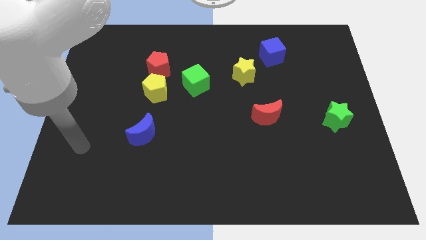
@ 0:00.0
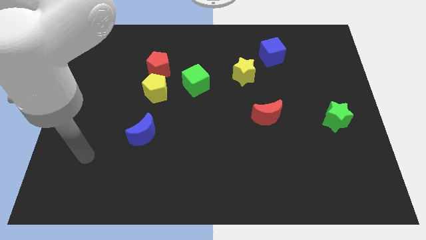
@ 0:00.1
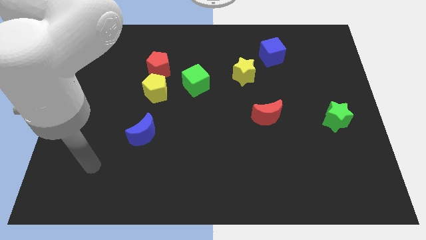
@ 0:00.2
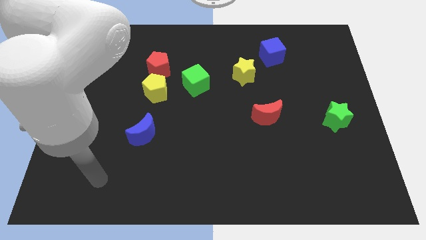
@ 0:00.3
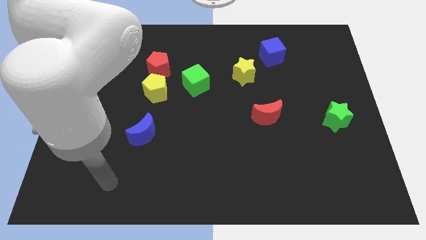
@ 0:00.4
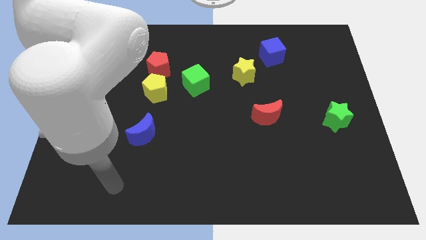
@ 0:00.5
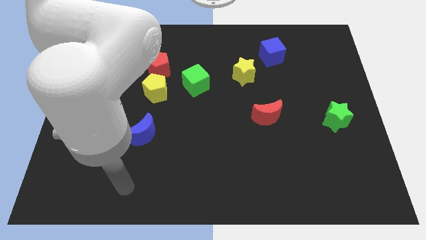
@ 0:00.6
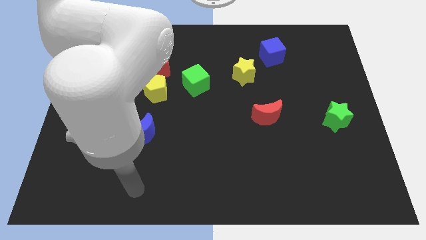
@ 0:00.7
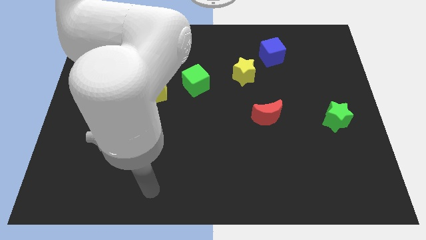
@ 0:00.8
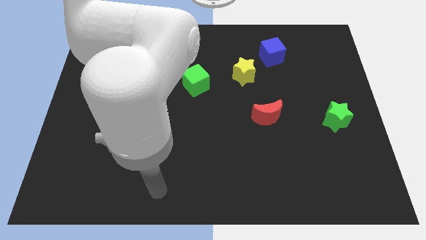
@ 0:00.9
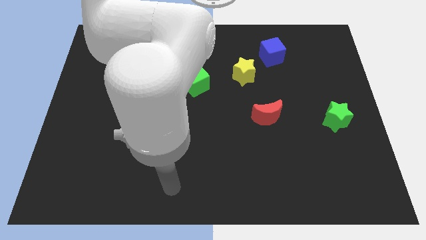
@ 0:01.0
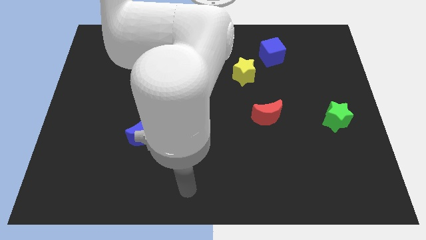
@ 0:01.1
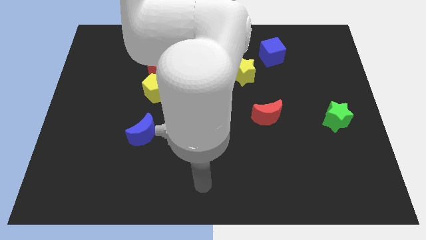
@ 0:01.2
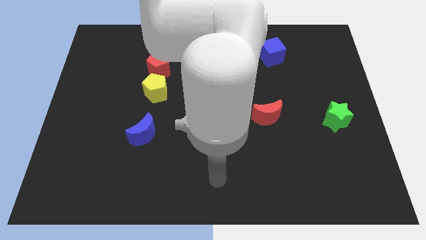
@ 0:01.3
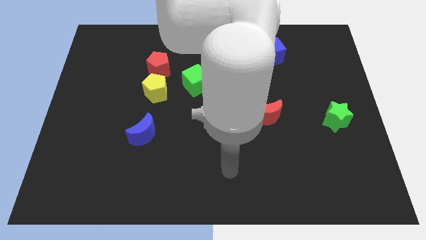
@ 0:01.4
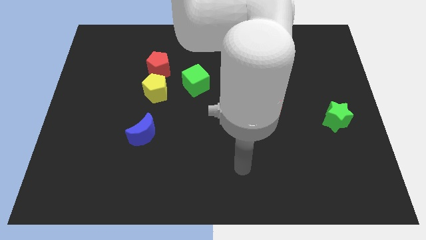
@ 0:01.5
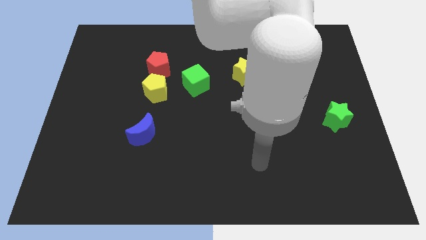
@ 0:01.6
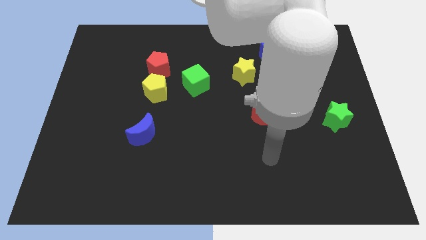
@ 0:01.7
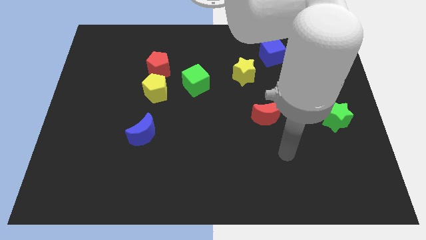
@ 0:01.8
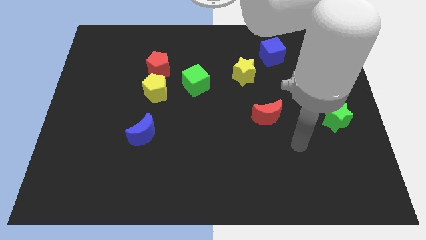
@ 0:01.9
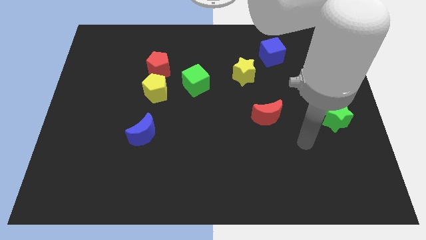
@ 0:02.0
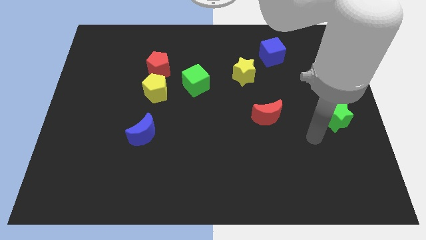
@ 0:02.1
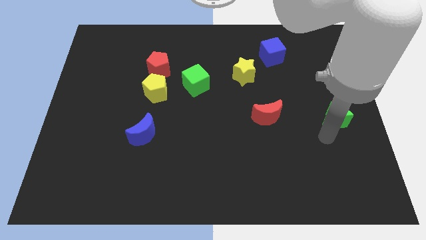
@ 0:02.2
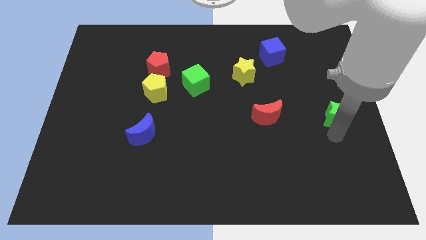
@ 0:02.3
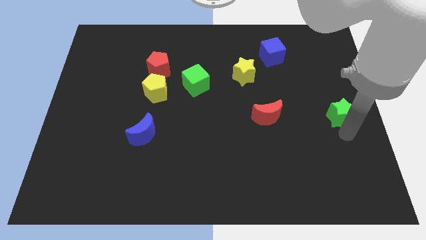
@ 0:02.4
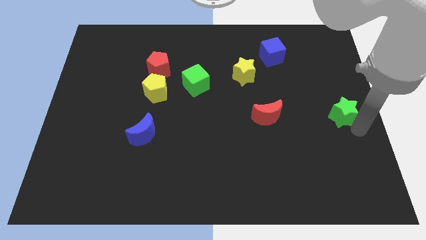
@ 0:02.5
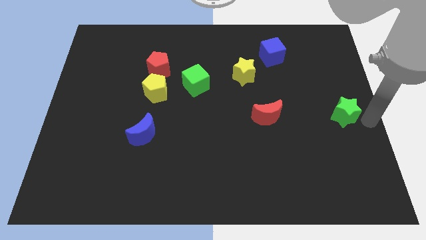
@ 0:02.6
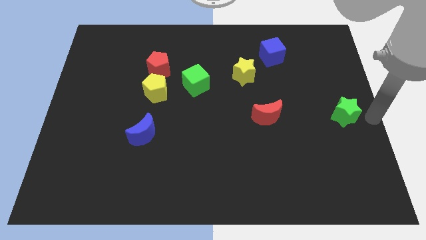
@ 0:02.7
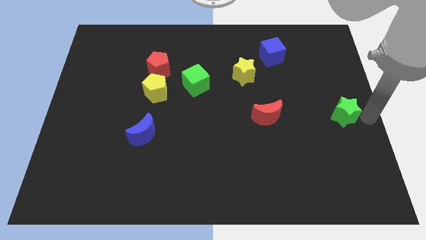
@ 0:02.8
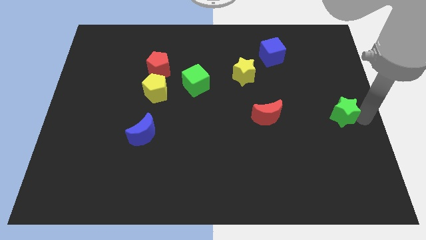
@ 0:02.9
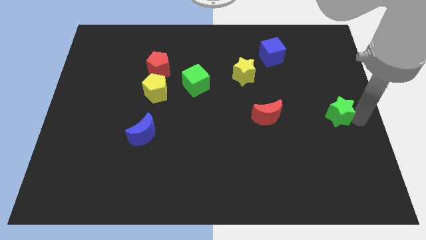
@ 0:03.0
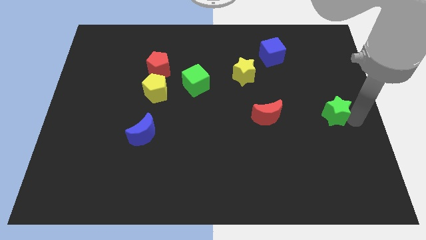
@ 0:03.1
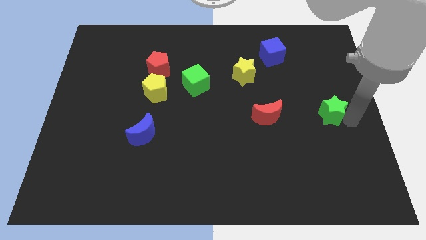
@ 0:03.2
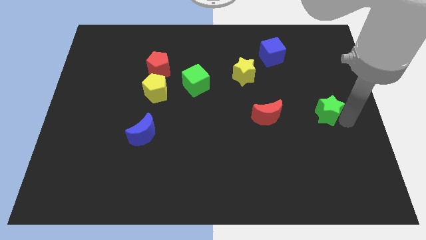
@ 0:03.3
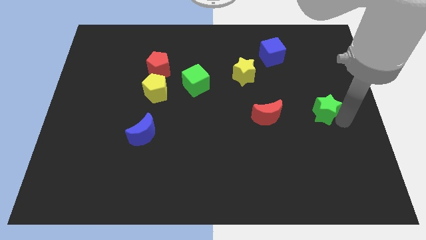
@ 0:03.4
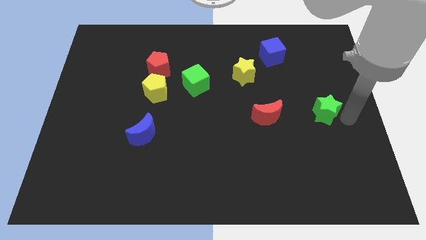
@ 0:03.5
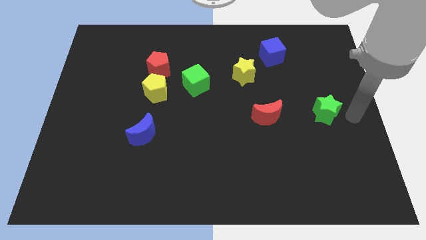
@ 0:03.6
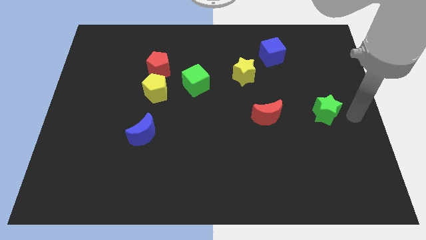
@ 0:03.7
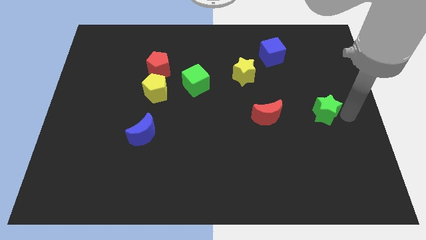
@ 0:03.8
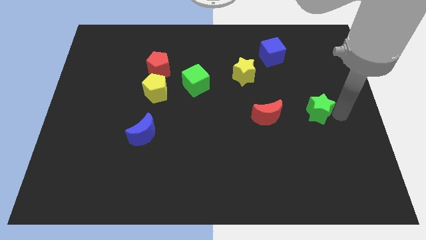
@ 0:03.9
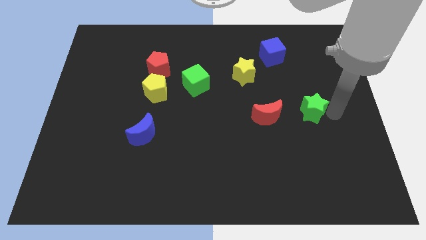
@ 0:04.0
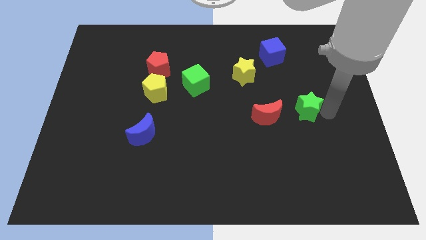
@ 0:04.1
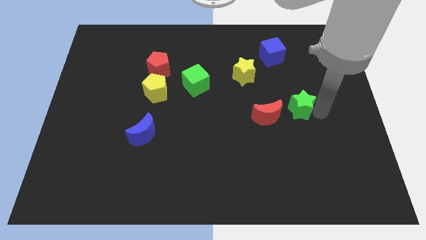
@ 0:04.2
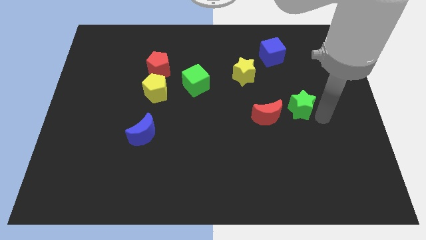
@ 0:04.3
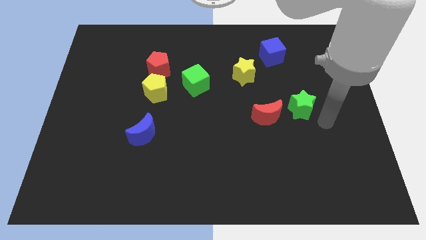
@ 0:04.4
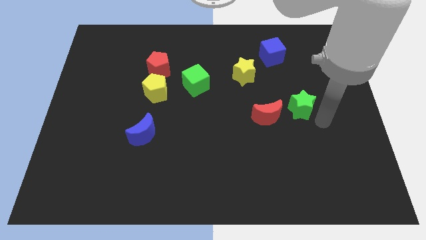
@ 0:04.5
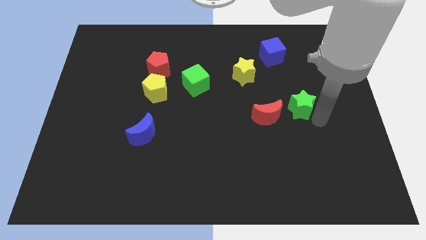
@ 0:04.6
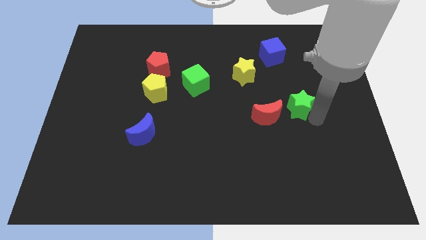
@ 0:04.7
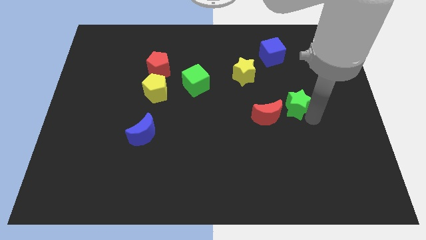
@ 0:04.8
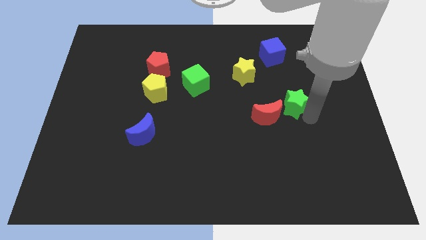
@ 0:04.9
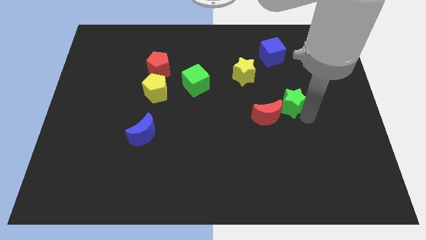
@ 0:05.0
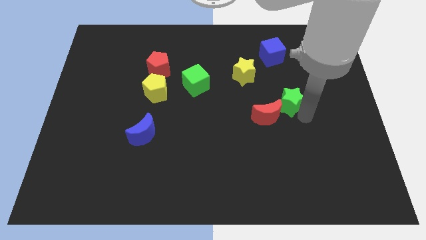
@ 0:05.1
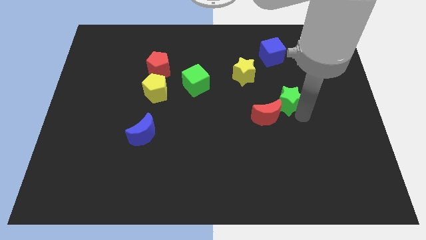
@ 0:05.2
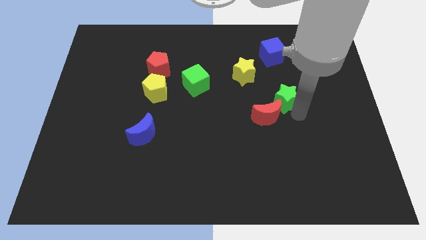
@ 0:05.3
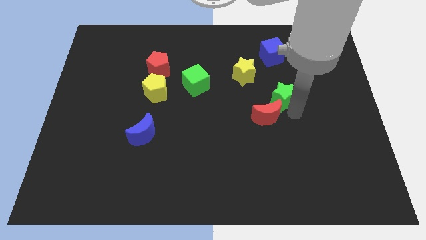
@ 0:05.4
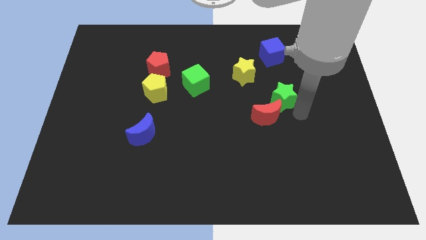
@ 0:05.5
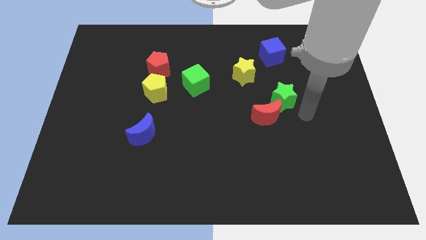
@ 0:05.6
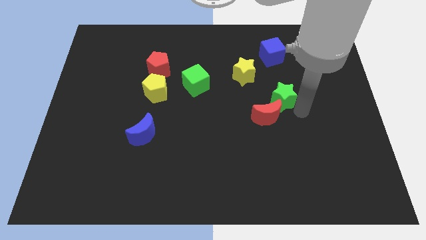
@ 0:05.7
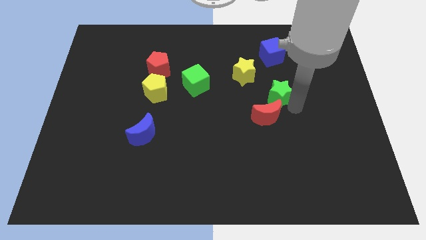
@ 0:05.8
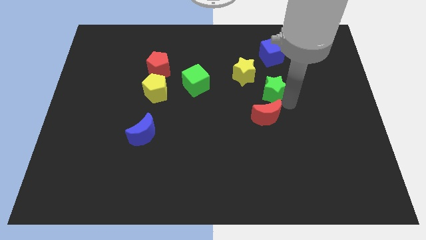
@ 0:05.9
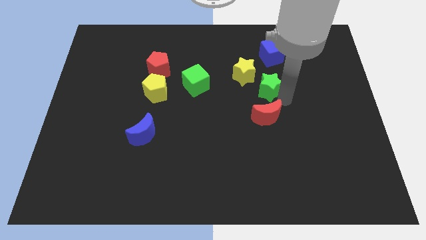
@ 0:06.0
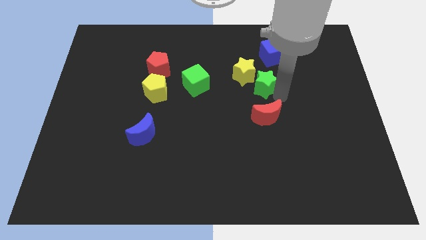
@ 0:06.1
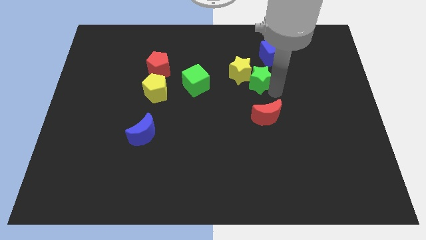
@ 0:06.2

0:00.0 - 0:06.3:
put the green star just right of the green cube
